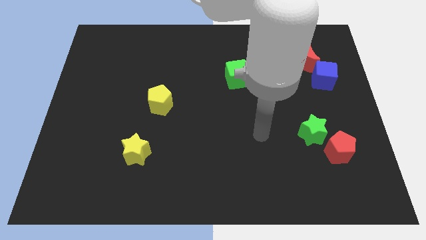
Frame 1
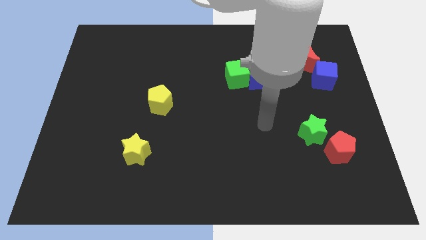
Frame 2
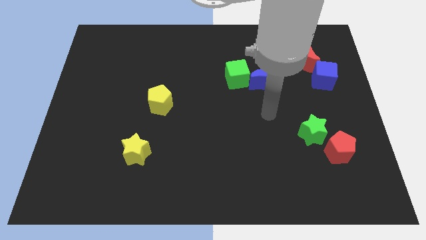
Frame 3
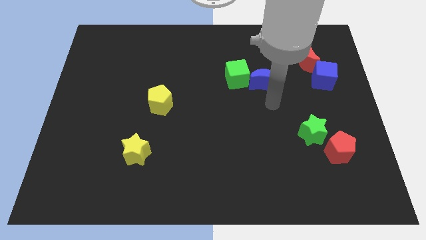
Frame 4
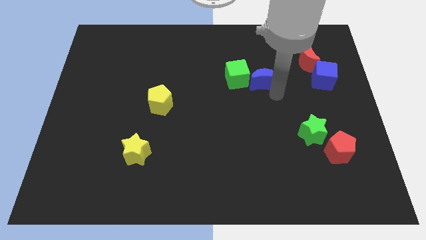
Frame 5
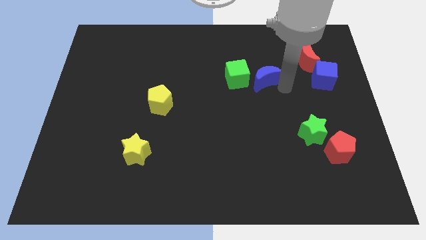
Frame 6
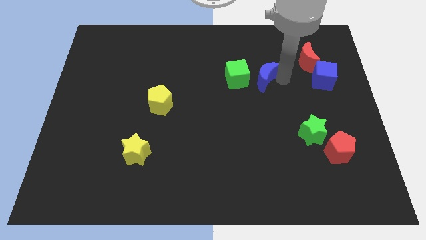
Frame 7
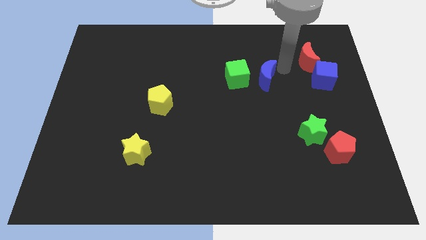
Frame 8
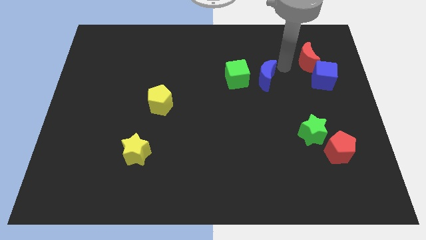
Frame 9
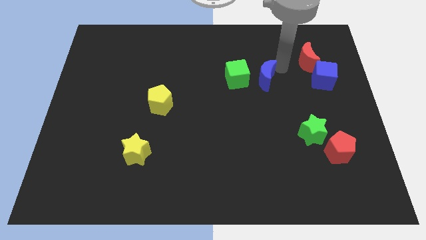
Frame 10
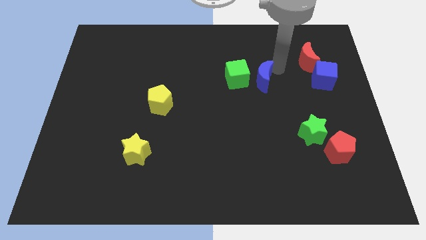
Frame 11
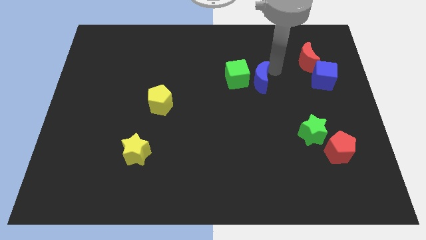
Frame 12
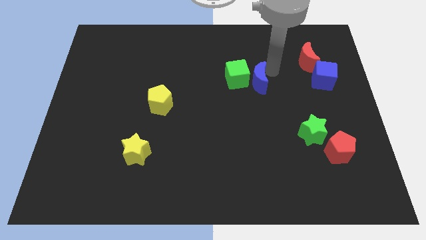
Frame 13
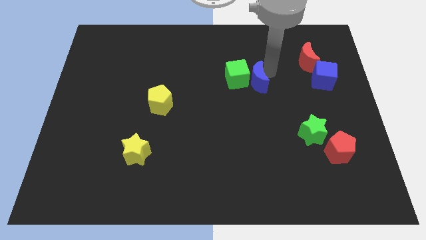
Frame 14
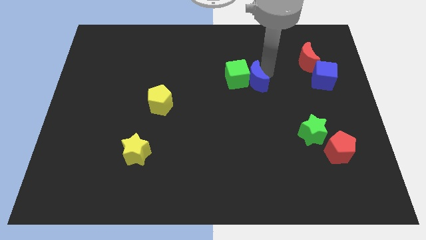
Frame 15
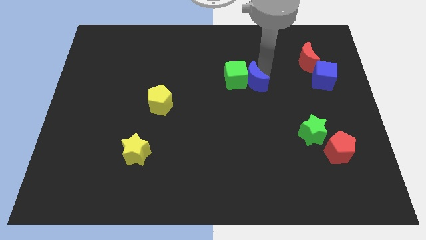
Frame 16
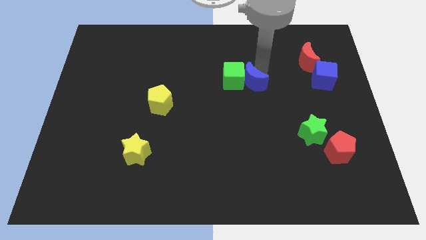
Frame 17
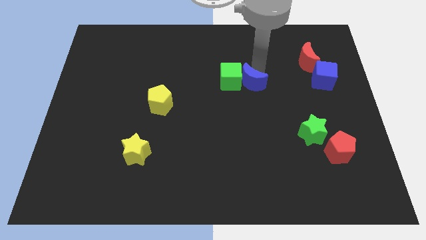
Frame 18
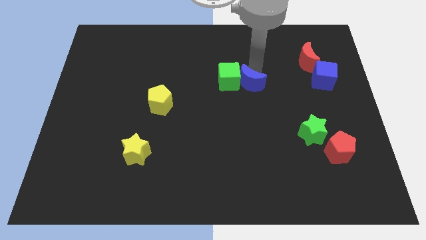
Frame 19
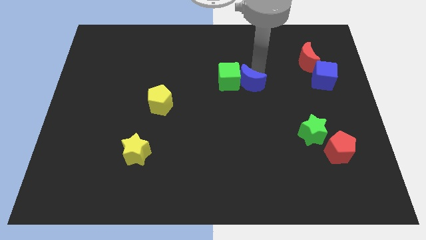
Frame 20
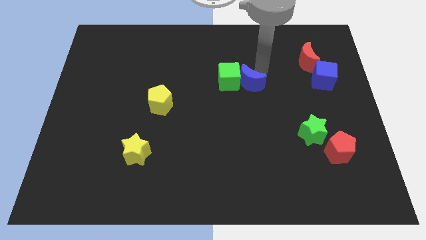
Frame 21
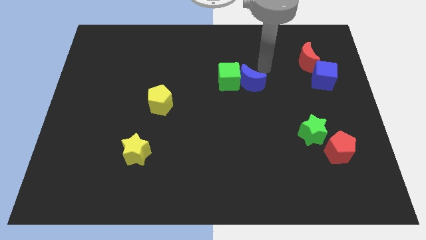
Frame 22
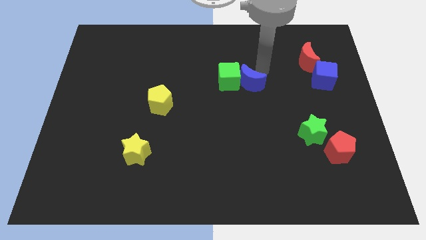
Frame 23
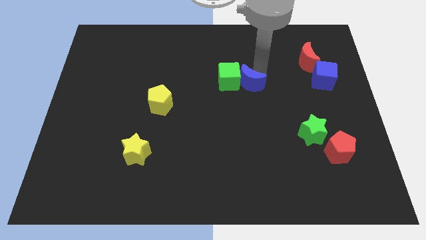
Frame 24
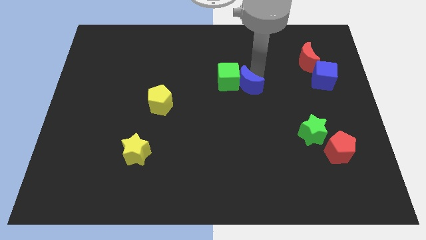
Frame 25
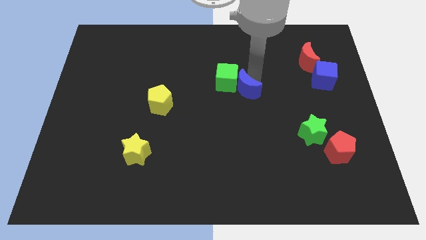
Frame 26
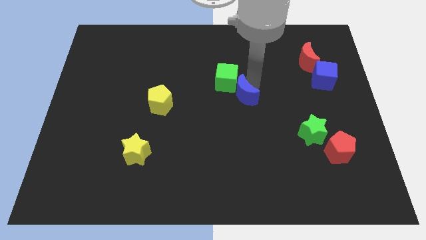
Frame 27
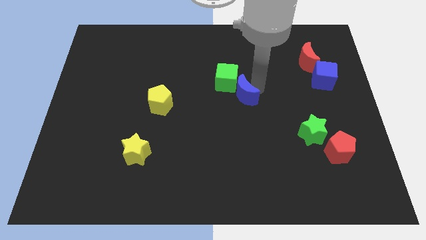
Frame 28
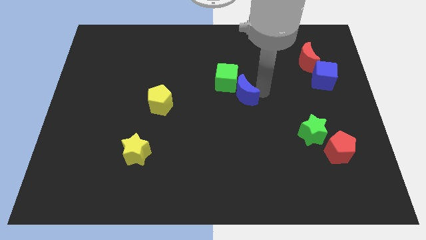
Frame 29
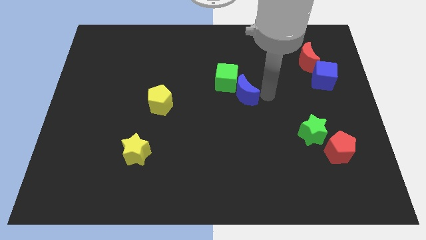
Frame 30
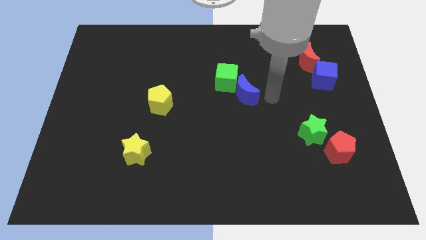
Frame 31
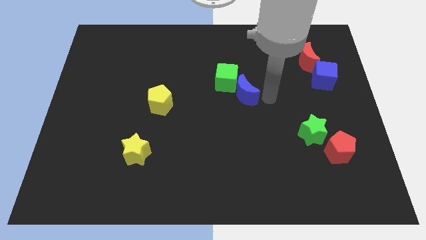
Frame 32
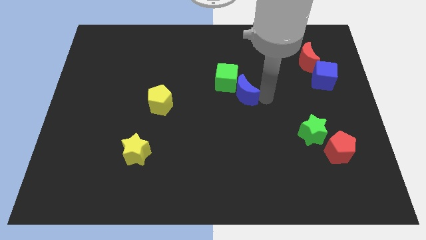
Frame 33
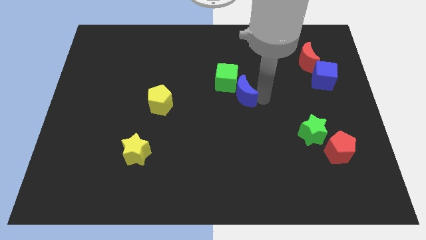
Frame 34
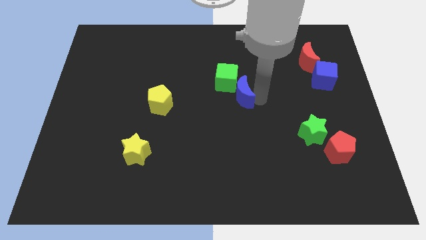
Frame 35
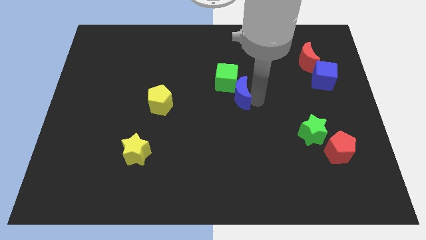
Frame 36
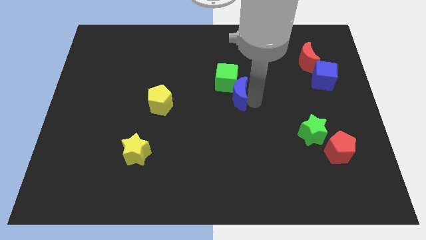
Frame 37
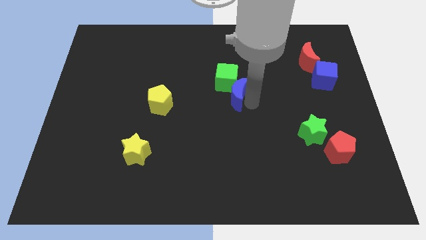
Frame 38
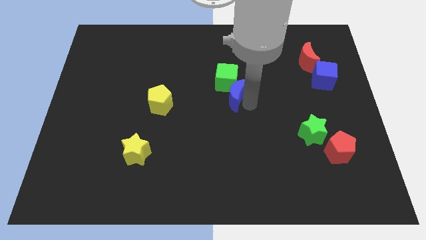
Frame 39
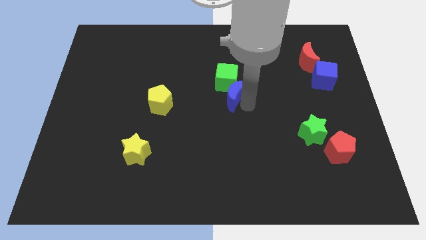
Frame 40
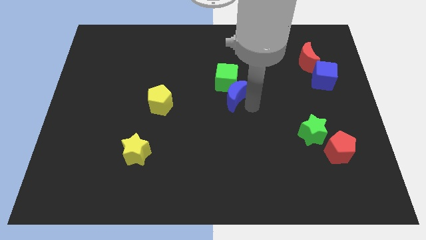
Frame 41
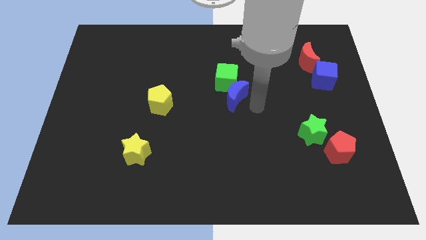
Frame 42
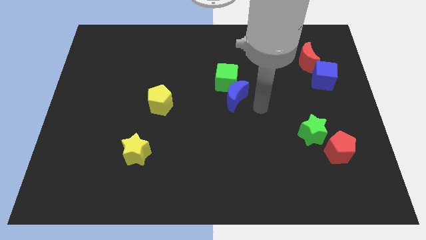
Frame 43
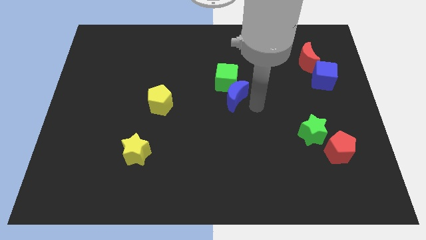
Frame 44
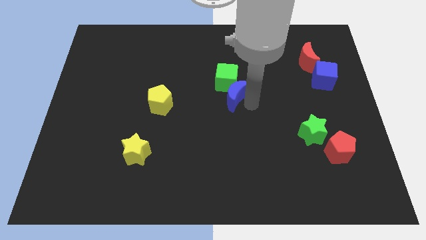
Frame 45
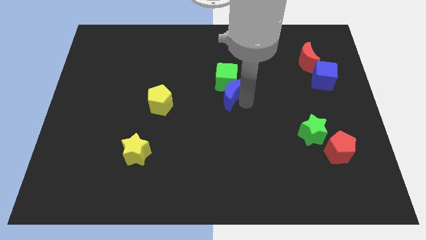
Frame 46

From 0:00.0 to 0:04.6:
slightly push the blue moon left

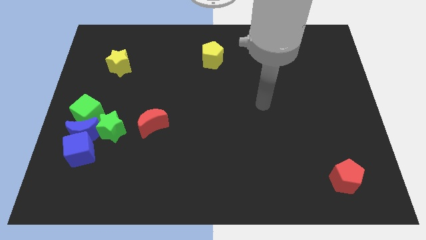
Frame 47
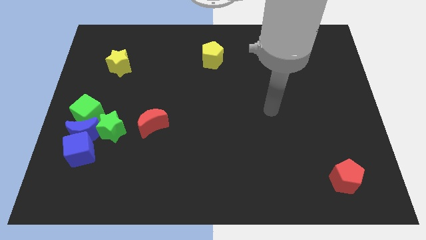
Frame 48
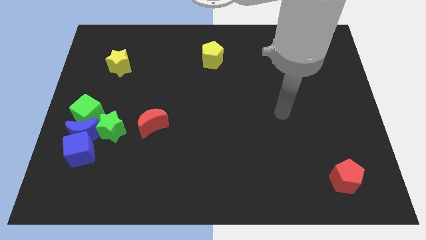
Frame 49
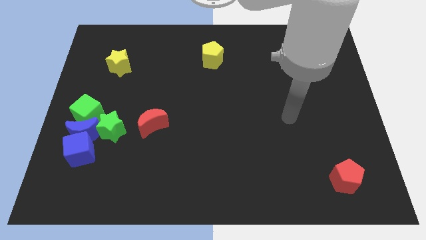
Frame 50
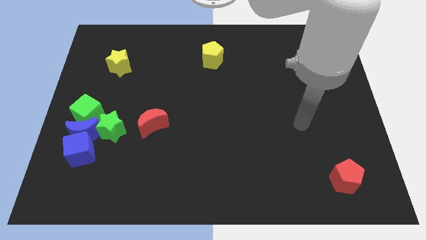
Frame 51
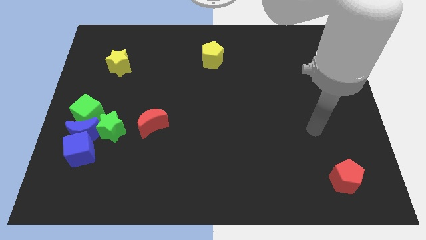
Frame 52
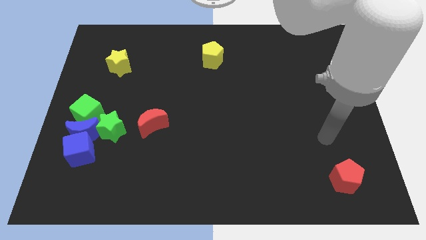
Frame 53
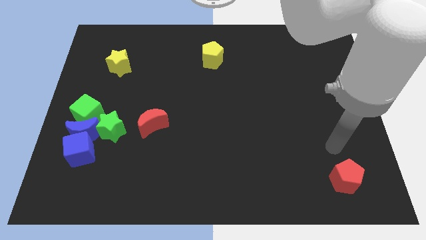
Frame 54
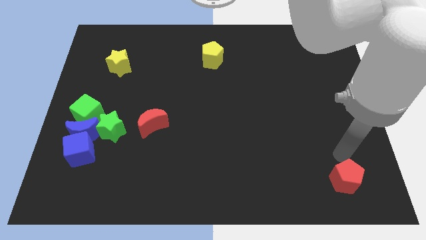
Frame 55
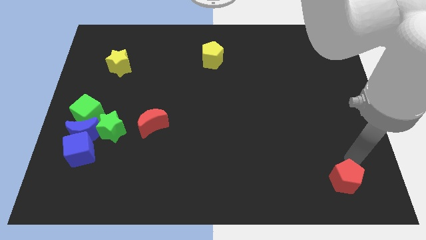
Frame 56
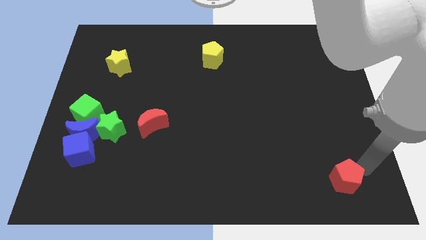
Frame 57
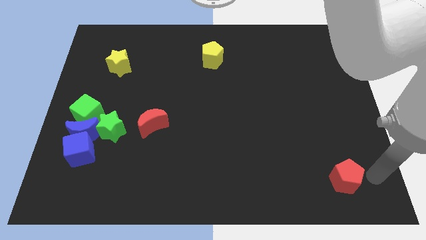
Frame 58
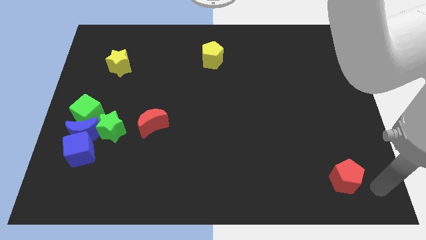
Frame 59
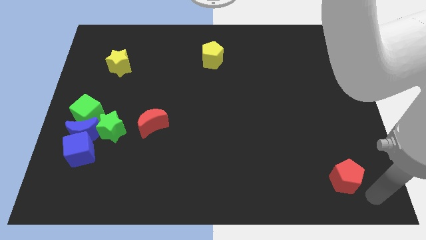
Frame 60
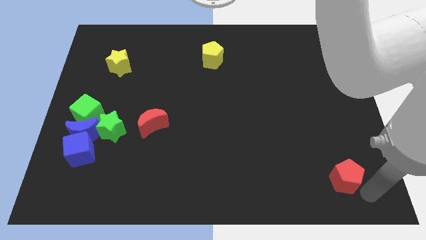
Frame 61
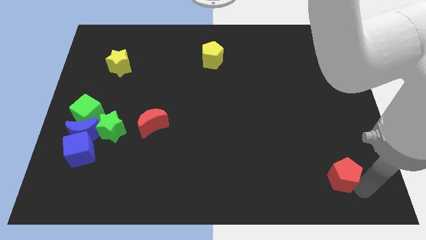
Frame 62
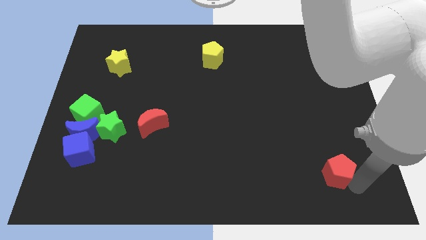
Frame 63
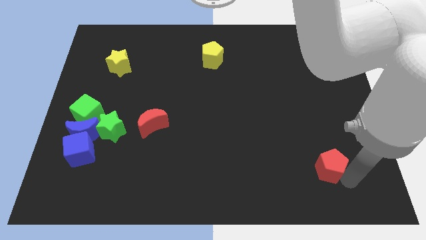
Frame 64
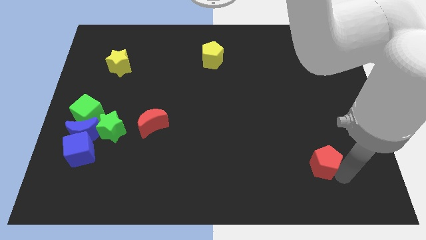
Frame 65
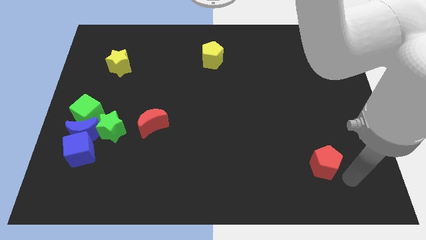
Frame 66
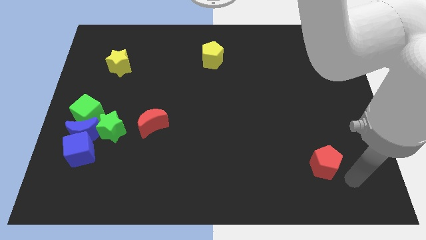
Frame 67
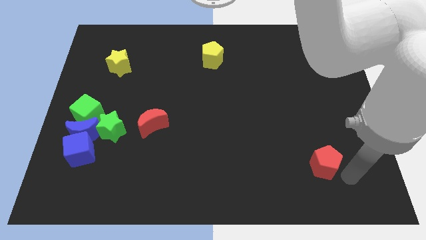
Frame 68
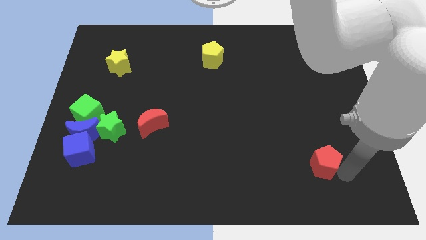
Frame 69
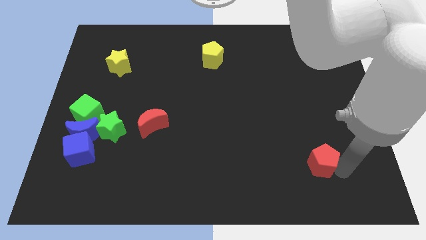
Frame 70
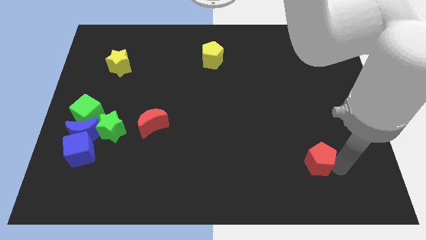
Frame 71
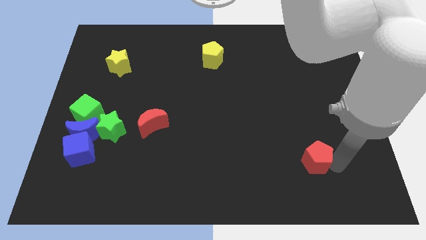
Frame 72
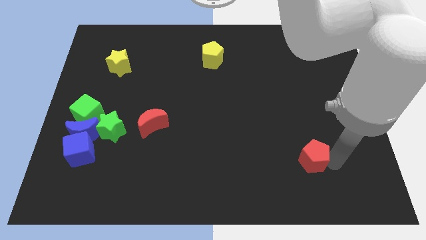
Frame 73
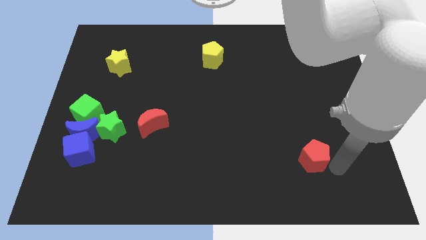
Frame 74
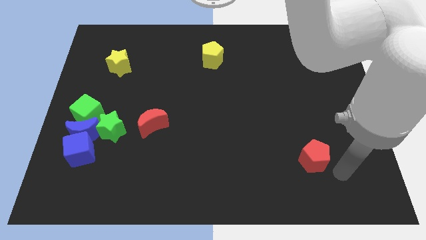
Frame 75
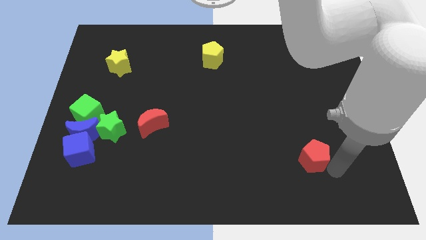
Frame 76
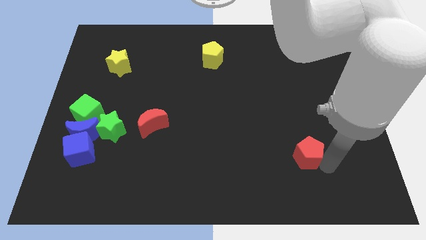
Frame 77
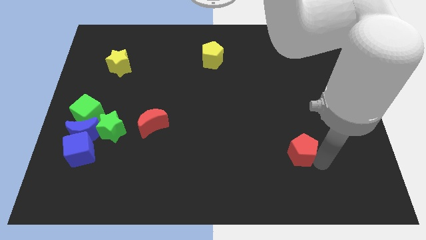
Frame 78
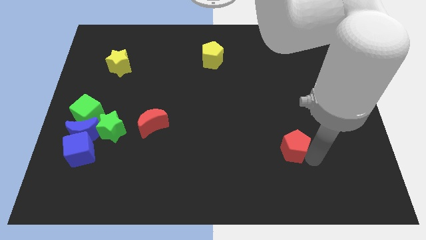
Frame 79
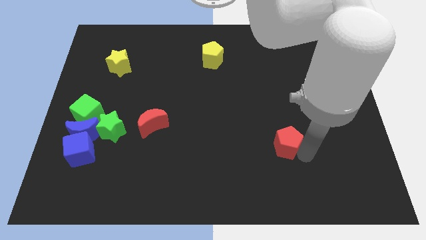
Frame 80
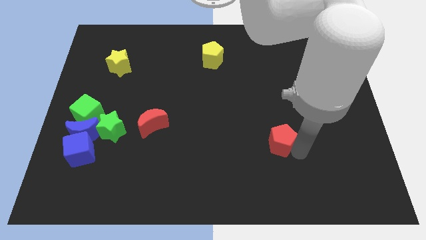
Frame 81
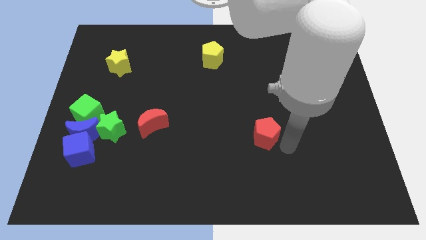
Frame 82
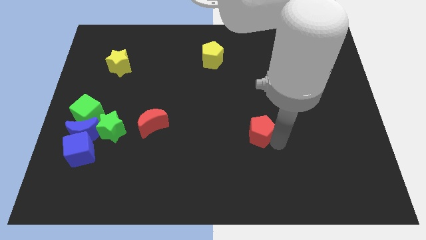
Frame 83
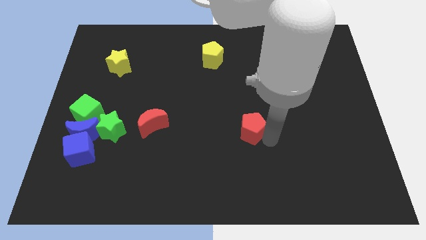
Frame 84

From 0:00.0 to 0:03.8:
push the red pentagon upwards and to the left
